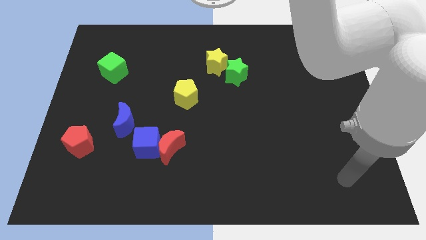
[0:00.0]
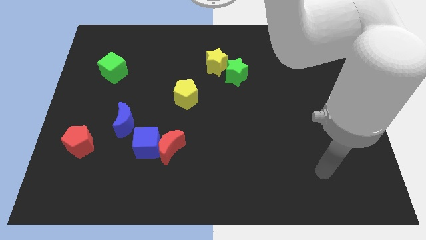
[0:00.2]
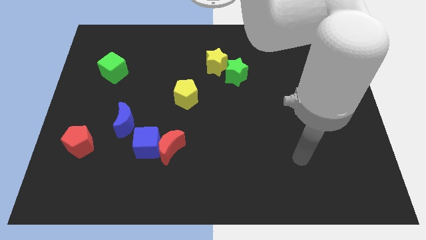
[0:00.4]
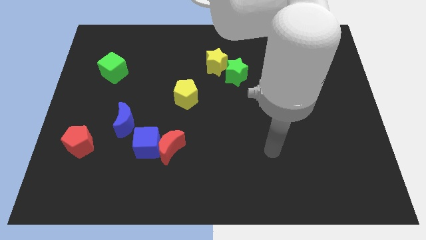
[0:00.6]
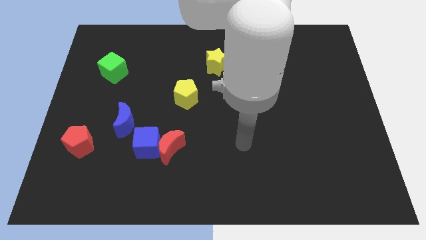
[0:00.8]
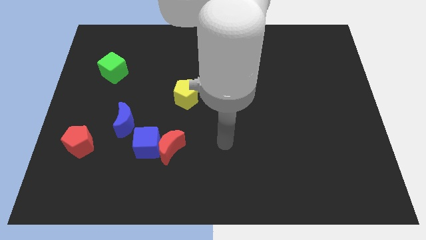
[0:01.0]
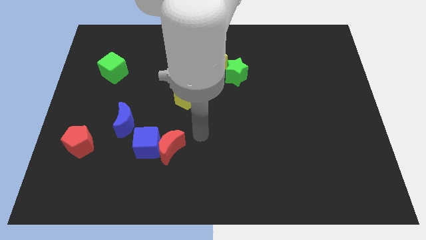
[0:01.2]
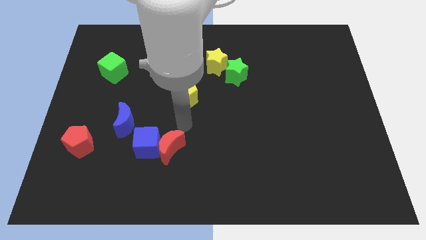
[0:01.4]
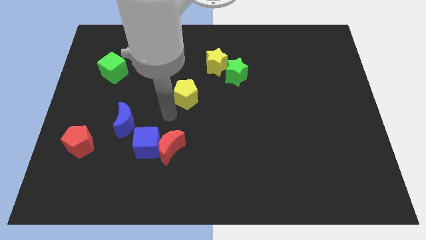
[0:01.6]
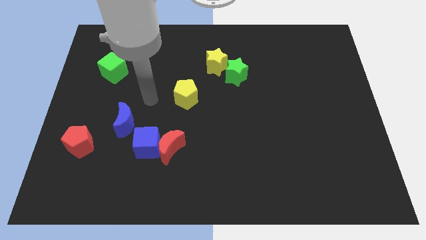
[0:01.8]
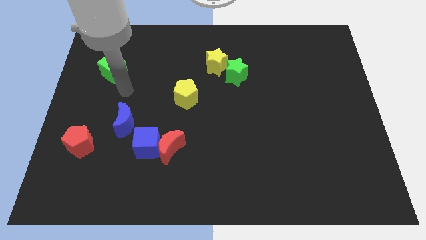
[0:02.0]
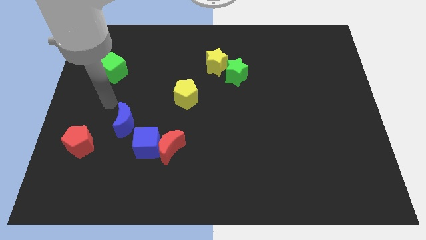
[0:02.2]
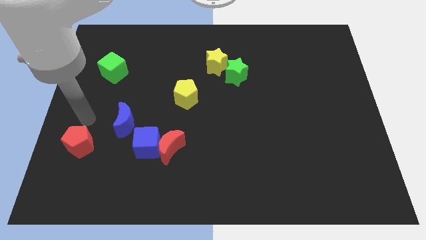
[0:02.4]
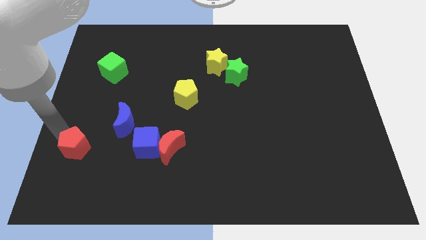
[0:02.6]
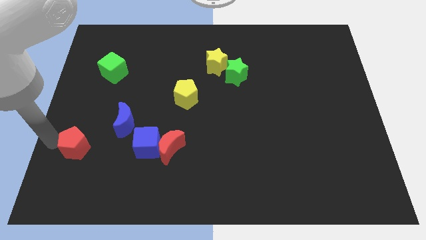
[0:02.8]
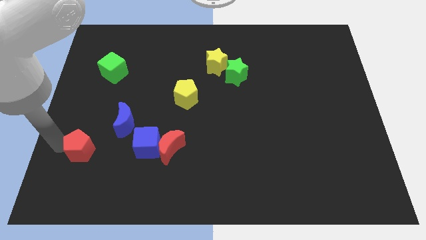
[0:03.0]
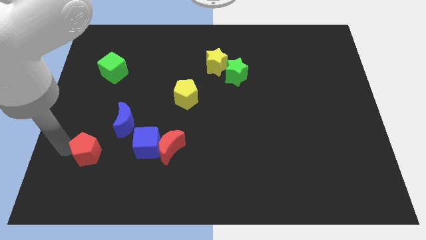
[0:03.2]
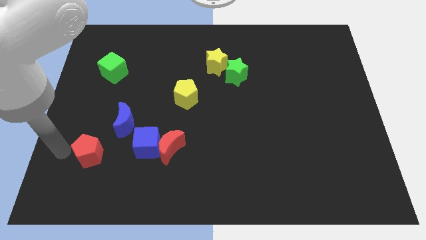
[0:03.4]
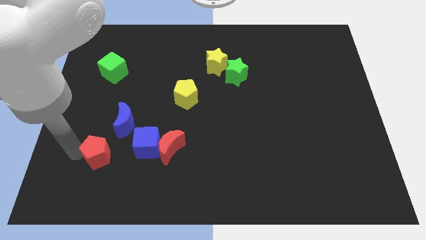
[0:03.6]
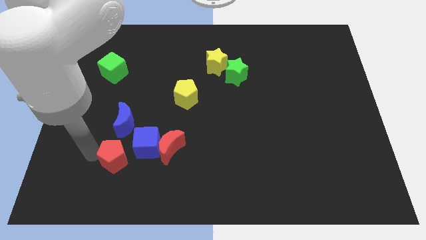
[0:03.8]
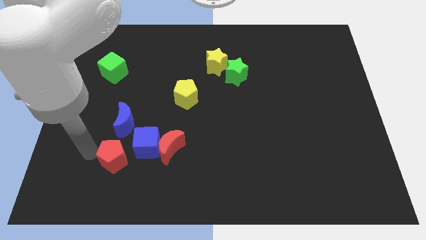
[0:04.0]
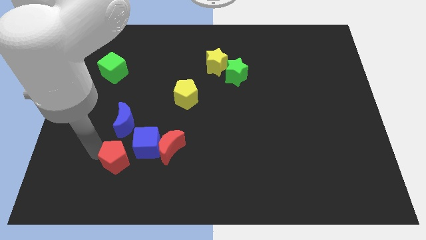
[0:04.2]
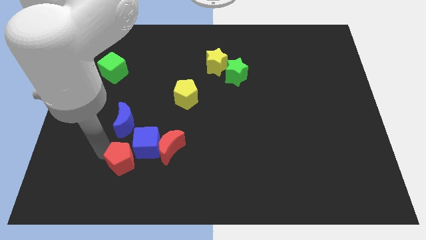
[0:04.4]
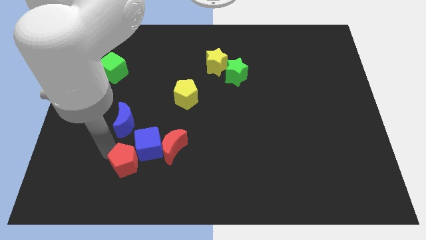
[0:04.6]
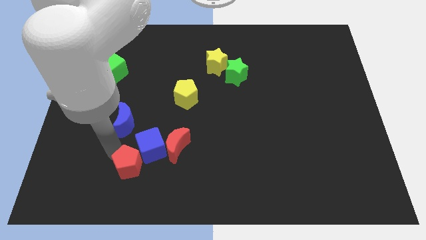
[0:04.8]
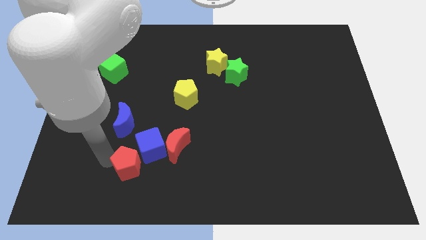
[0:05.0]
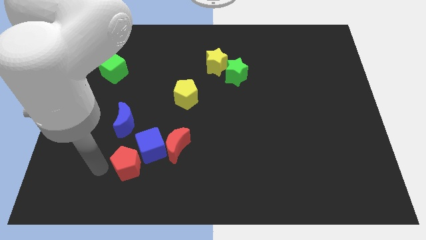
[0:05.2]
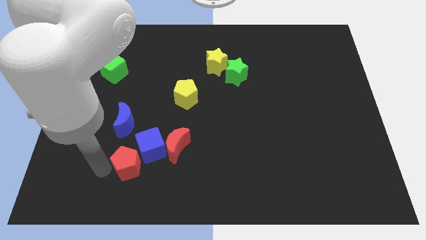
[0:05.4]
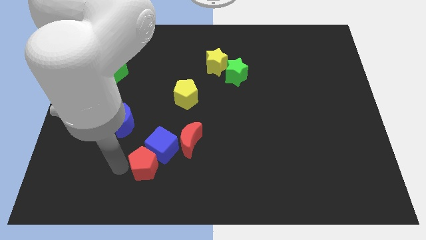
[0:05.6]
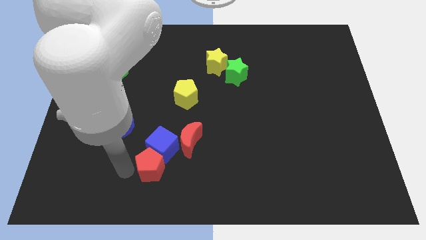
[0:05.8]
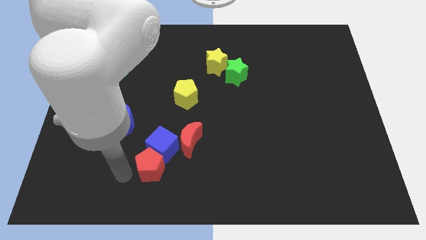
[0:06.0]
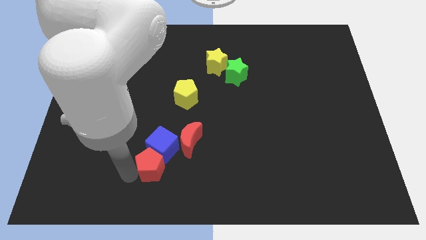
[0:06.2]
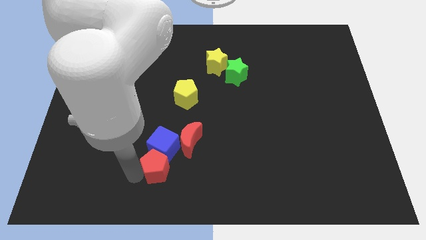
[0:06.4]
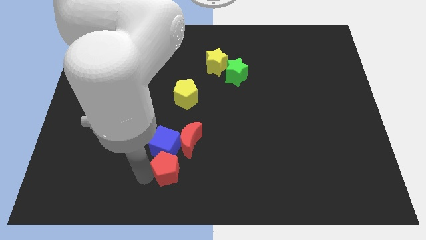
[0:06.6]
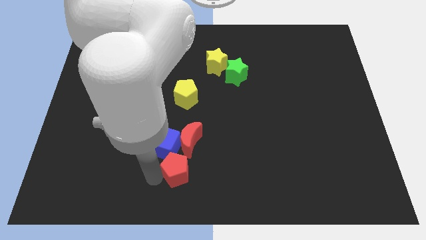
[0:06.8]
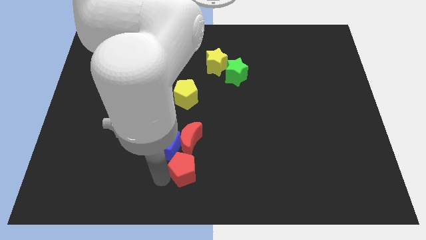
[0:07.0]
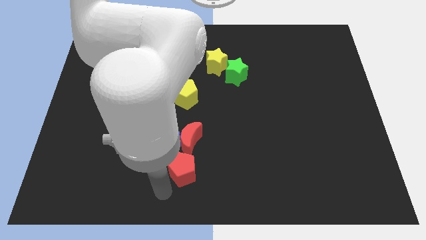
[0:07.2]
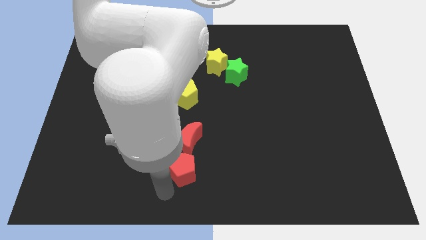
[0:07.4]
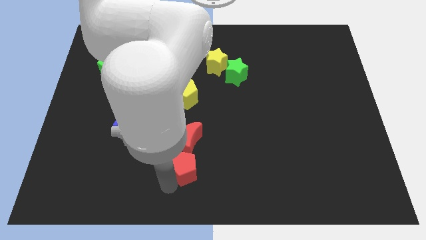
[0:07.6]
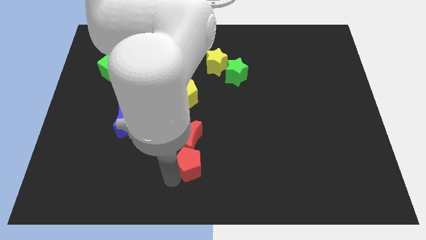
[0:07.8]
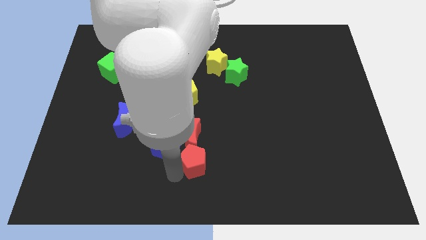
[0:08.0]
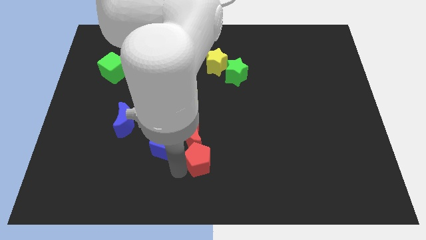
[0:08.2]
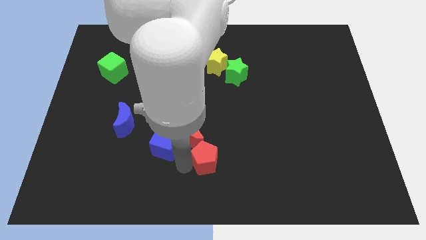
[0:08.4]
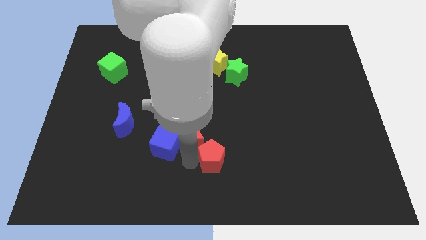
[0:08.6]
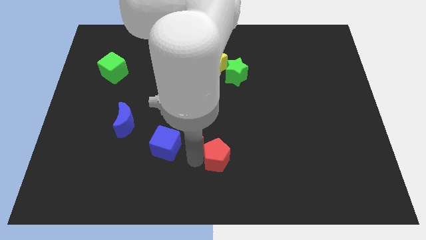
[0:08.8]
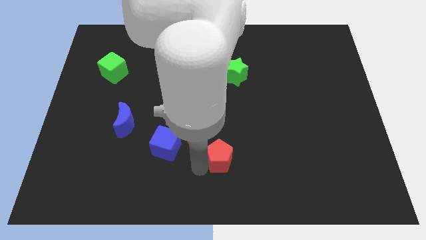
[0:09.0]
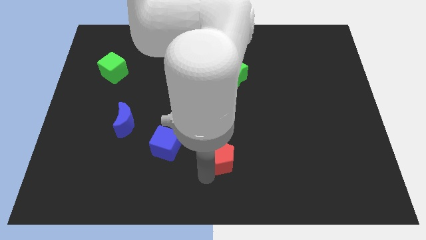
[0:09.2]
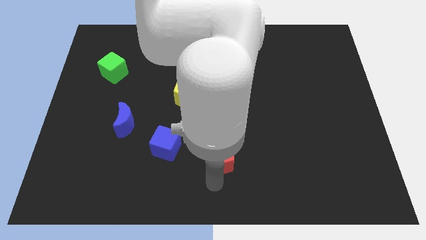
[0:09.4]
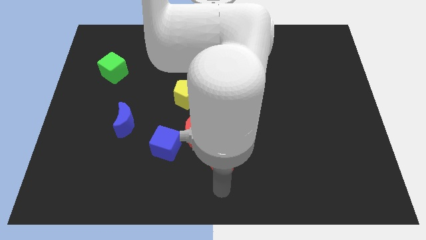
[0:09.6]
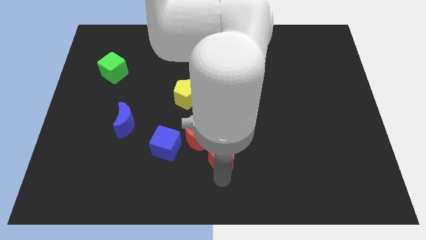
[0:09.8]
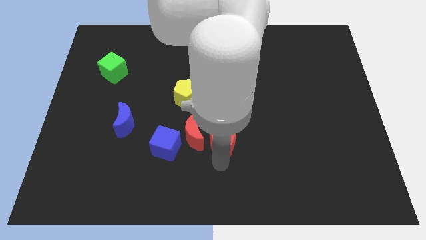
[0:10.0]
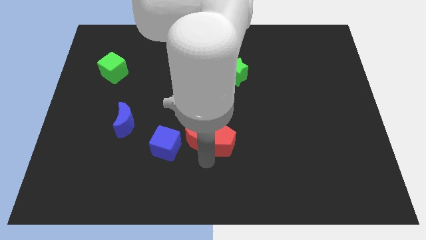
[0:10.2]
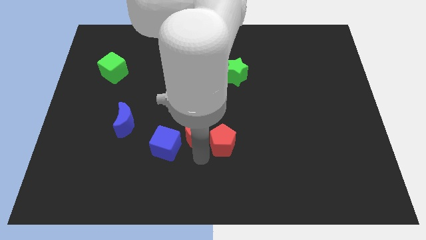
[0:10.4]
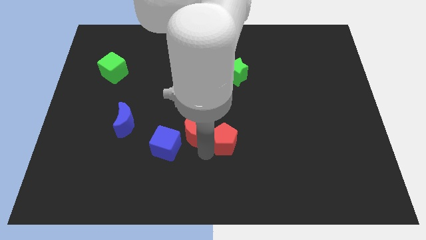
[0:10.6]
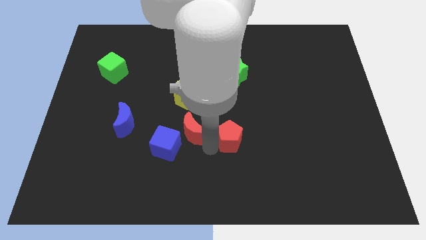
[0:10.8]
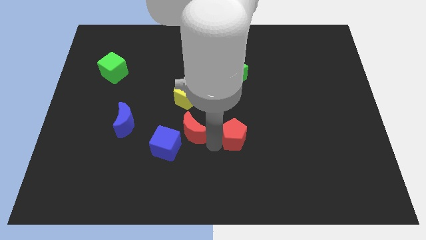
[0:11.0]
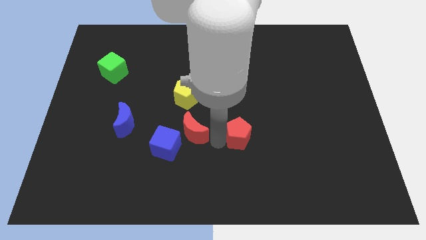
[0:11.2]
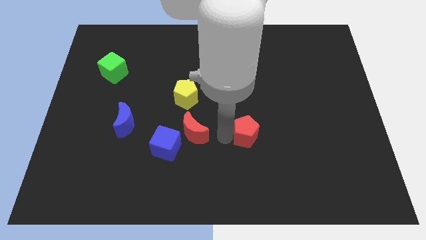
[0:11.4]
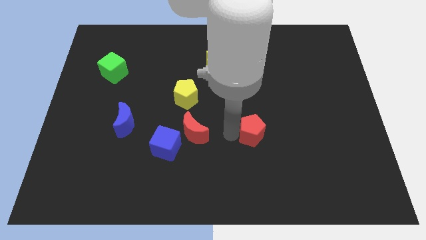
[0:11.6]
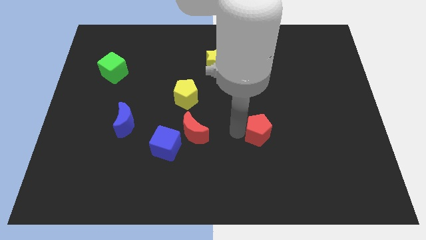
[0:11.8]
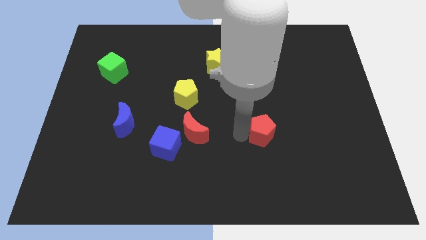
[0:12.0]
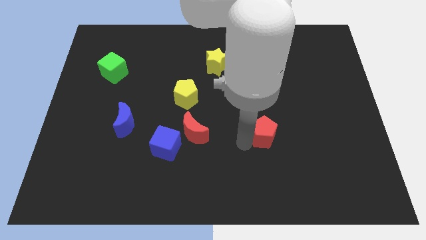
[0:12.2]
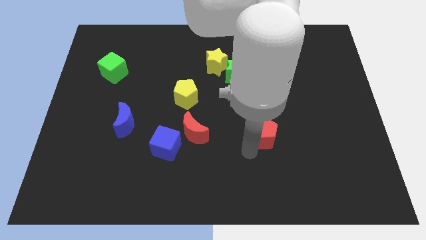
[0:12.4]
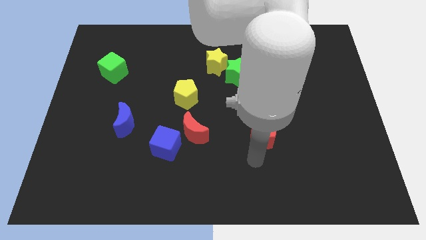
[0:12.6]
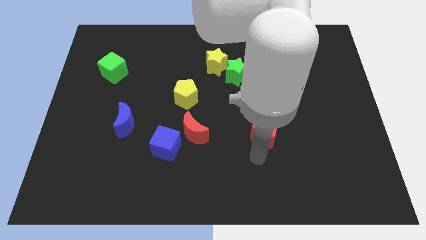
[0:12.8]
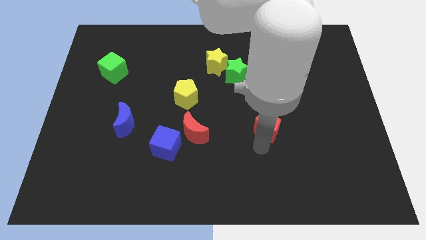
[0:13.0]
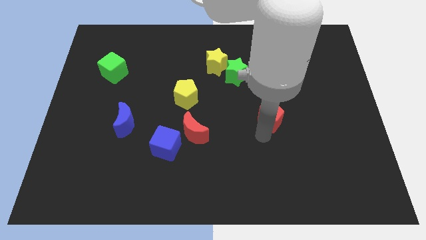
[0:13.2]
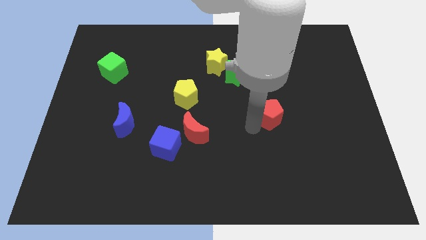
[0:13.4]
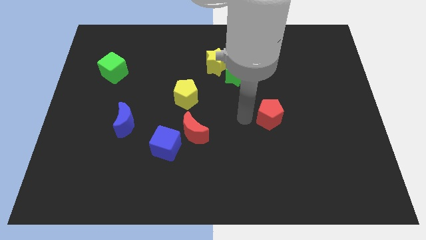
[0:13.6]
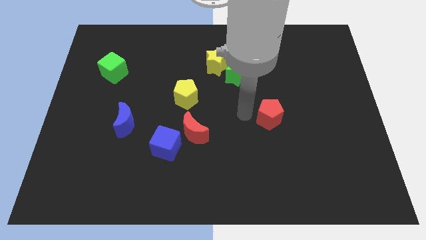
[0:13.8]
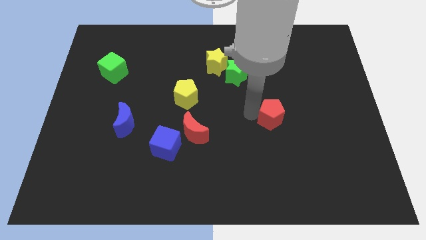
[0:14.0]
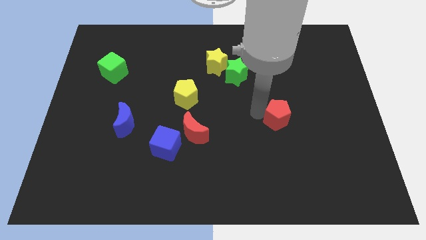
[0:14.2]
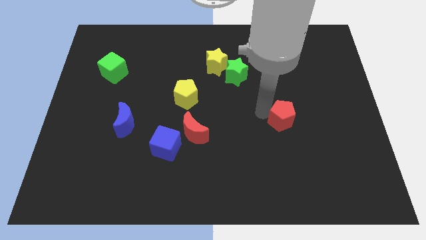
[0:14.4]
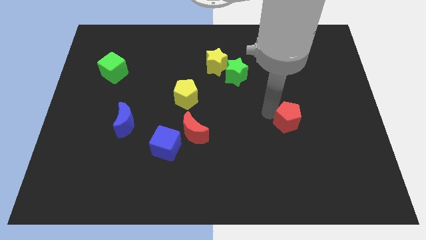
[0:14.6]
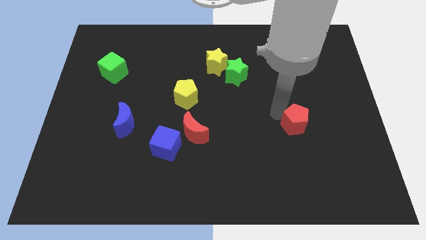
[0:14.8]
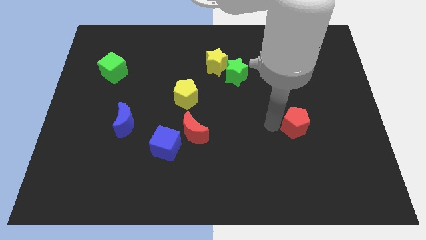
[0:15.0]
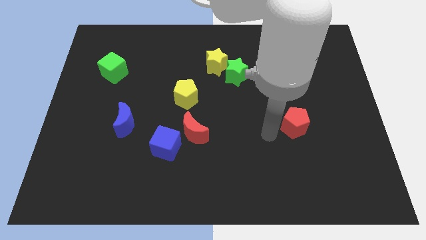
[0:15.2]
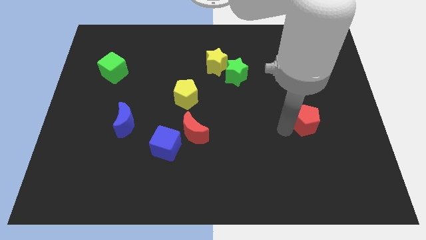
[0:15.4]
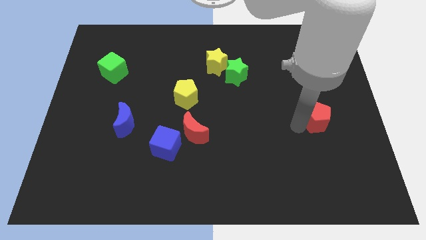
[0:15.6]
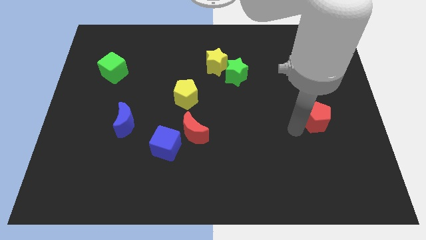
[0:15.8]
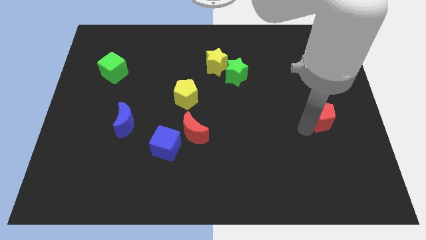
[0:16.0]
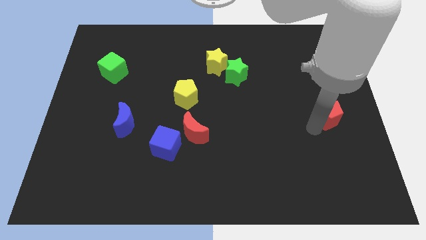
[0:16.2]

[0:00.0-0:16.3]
put the red pentagon to the right side
